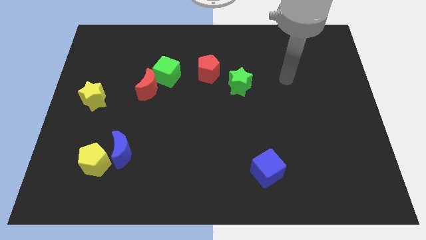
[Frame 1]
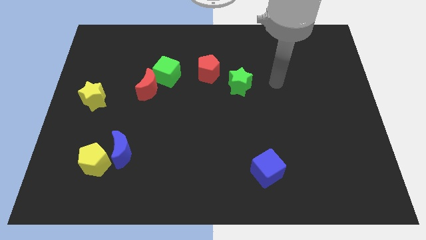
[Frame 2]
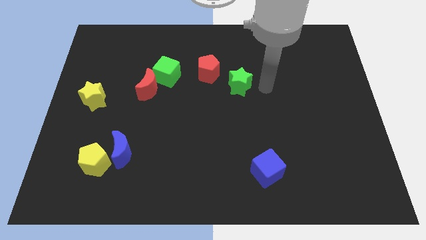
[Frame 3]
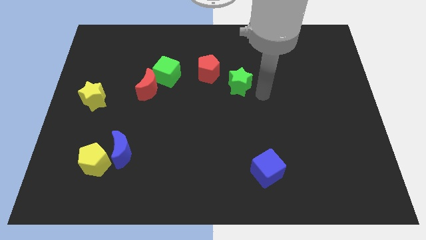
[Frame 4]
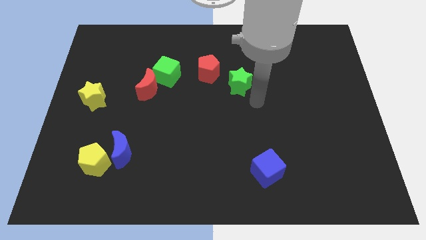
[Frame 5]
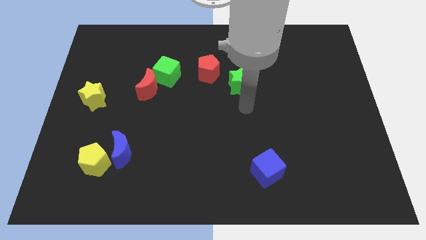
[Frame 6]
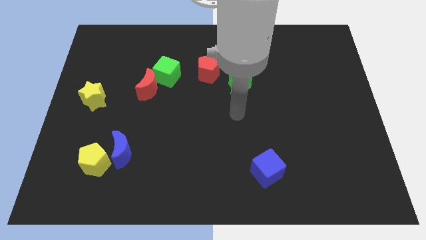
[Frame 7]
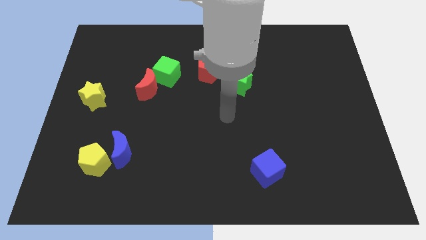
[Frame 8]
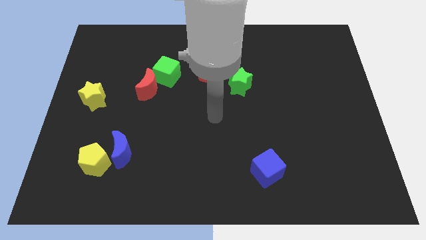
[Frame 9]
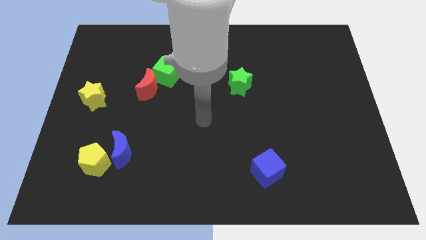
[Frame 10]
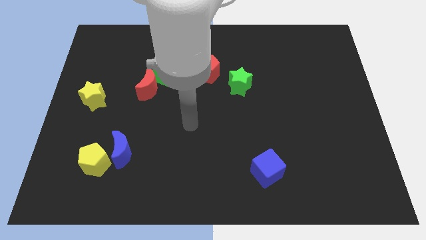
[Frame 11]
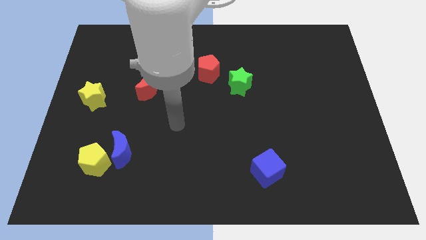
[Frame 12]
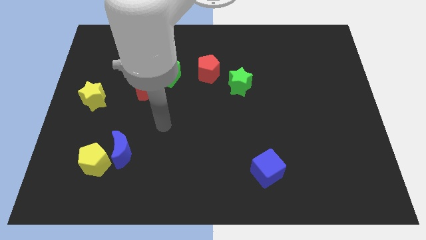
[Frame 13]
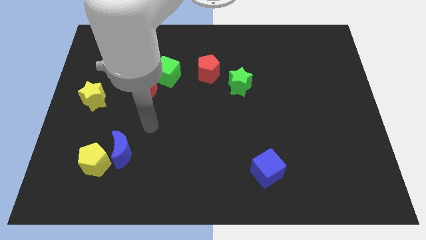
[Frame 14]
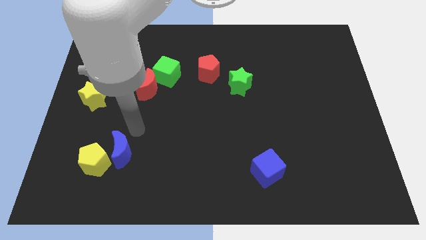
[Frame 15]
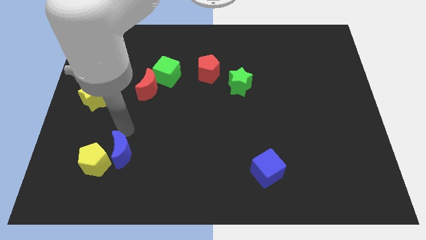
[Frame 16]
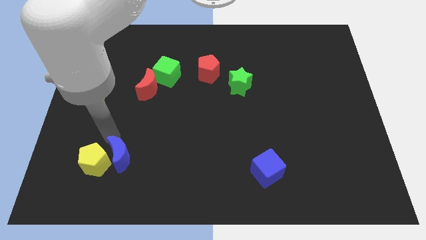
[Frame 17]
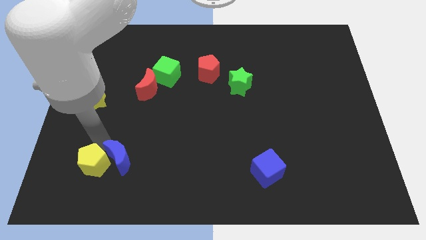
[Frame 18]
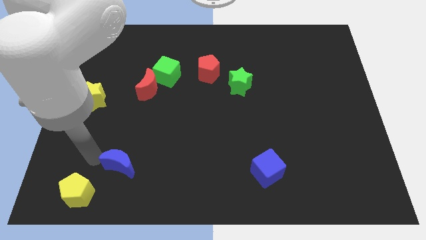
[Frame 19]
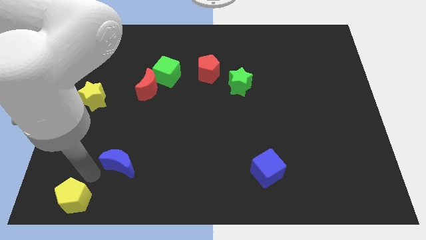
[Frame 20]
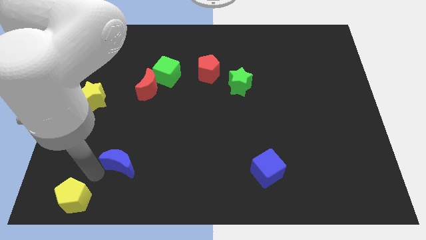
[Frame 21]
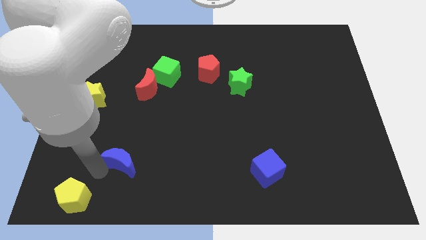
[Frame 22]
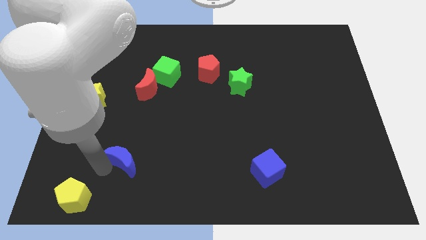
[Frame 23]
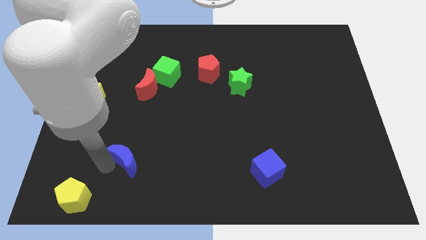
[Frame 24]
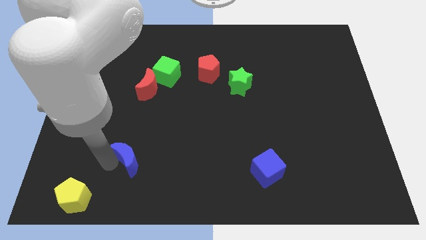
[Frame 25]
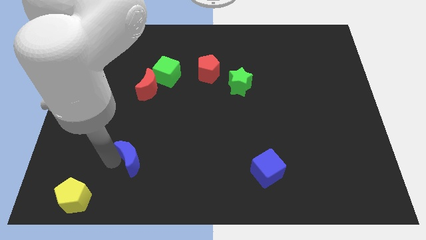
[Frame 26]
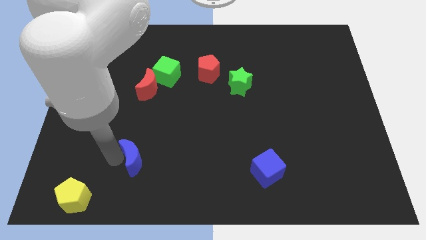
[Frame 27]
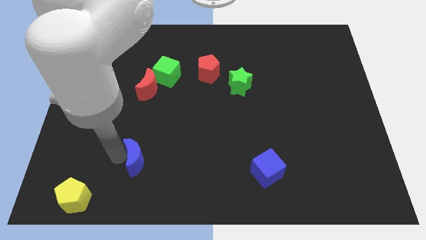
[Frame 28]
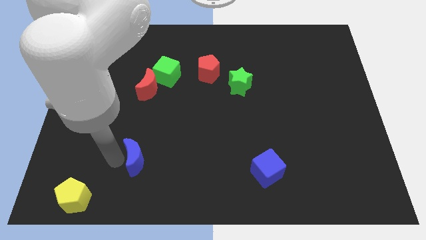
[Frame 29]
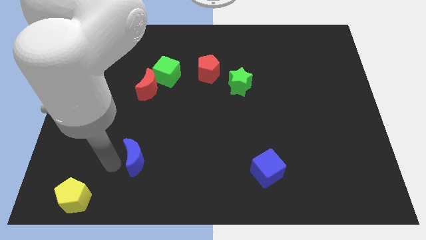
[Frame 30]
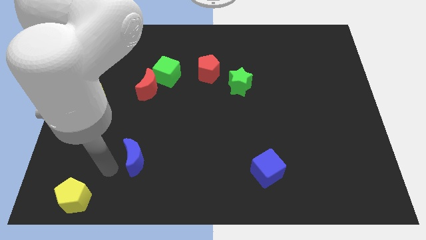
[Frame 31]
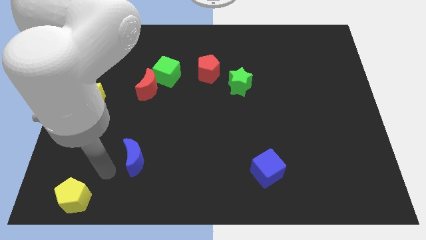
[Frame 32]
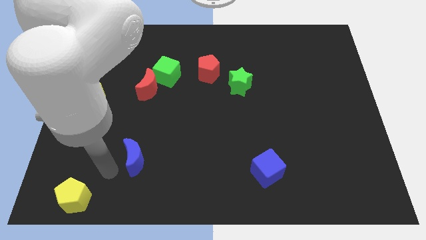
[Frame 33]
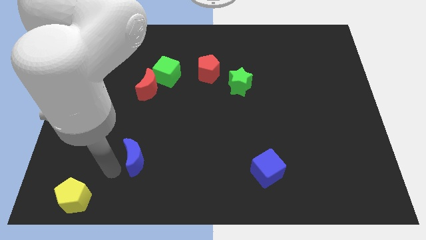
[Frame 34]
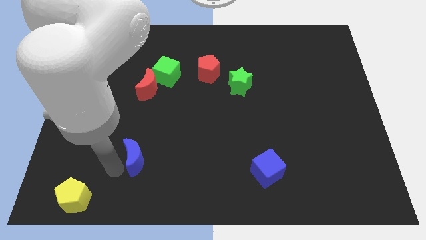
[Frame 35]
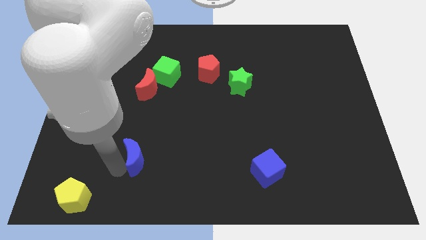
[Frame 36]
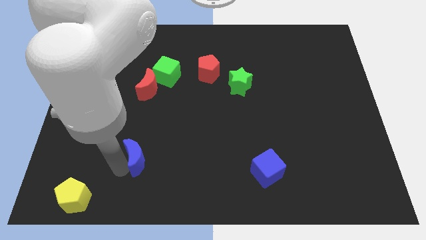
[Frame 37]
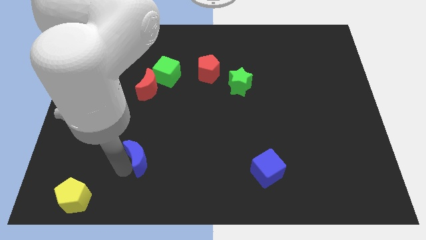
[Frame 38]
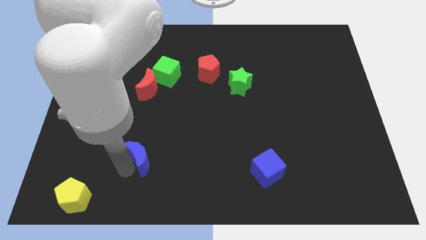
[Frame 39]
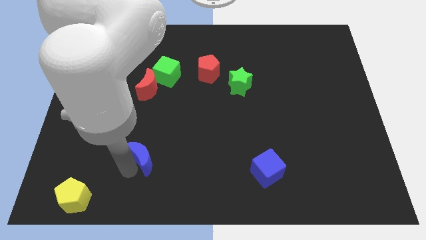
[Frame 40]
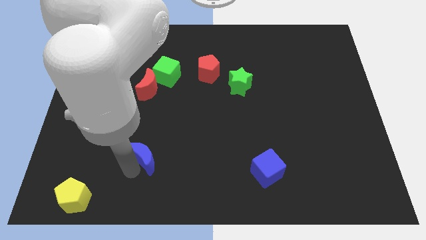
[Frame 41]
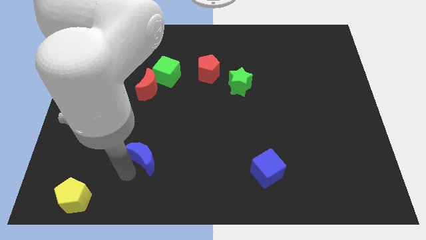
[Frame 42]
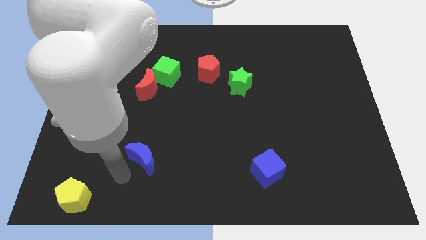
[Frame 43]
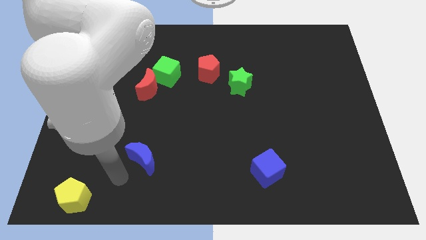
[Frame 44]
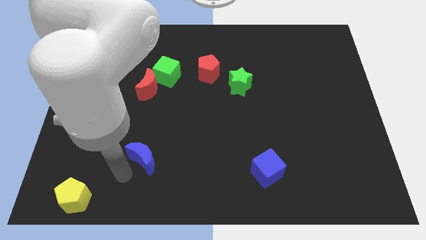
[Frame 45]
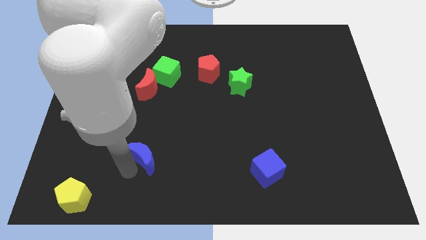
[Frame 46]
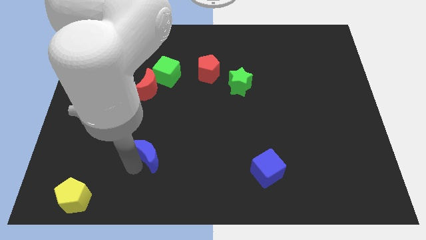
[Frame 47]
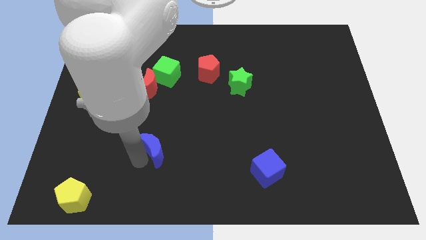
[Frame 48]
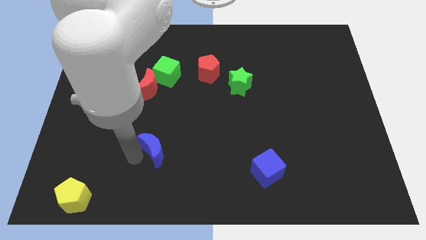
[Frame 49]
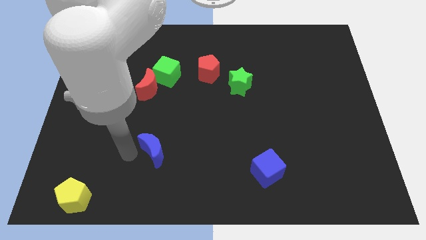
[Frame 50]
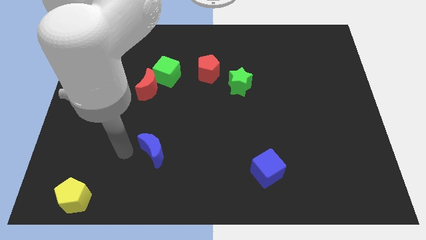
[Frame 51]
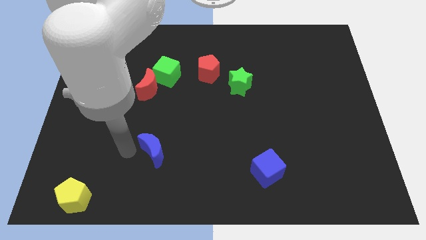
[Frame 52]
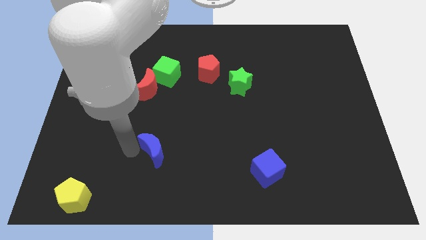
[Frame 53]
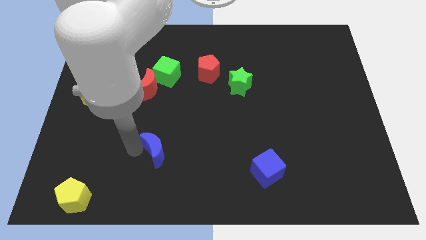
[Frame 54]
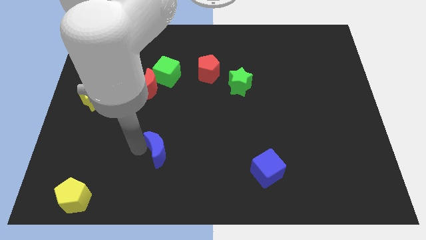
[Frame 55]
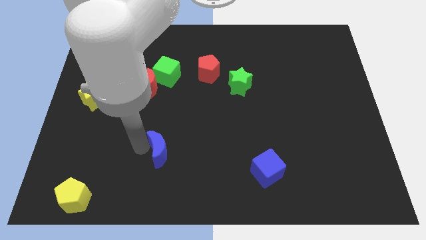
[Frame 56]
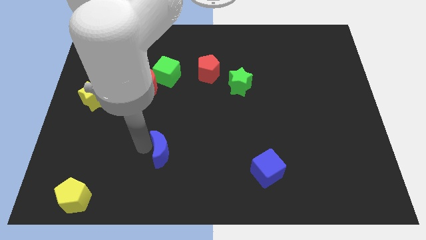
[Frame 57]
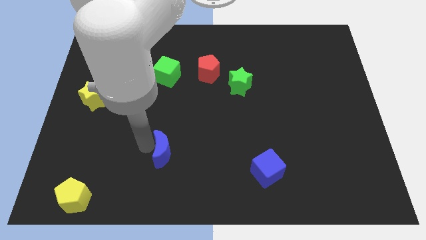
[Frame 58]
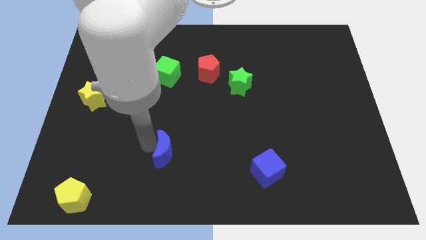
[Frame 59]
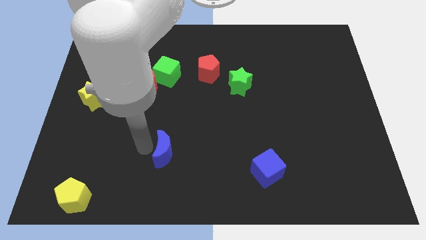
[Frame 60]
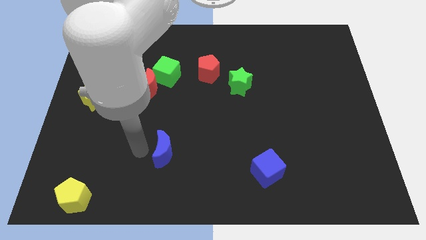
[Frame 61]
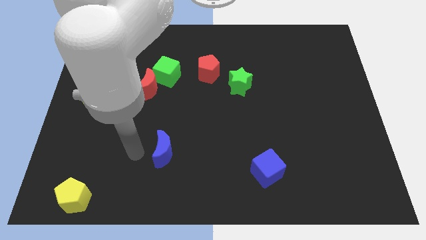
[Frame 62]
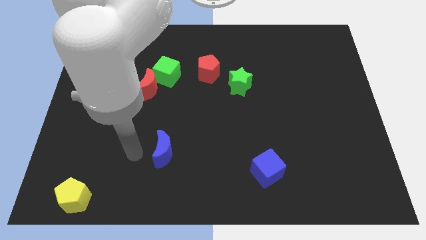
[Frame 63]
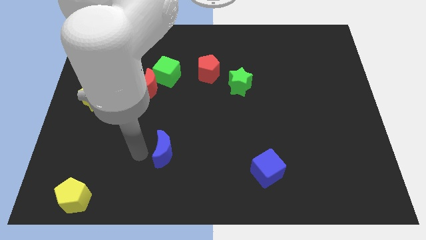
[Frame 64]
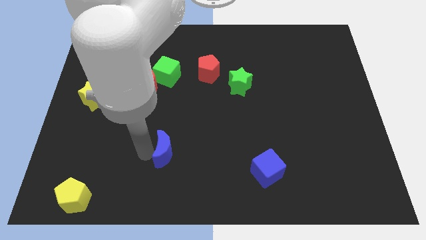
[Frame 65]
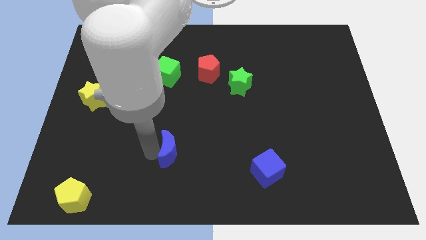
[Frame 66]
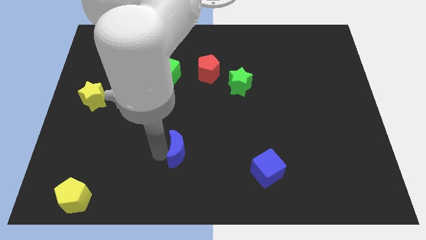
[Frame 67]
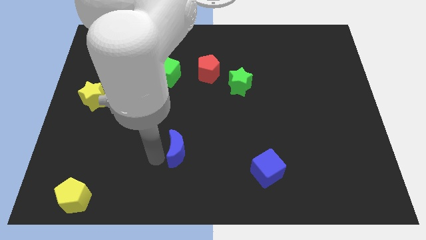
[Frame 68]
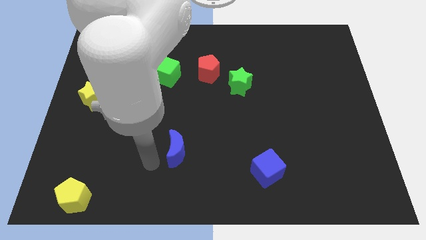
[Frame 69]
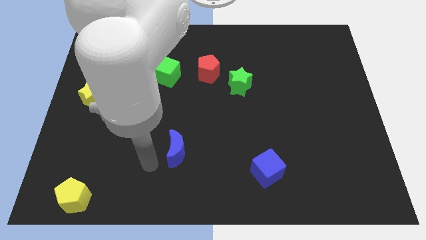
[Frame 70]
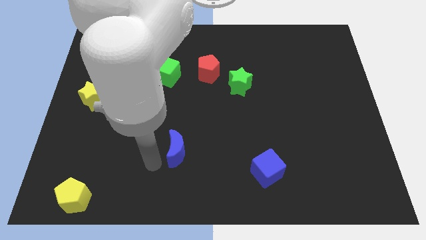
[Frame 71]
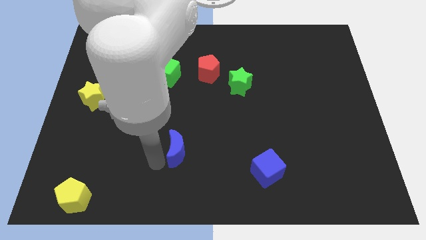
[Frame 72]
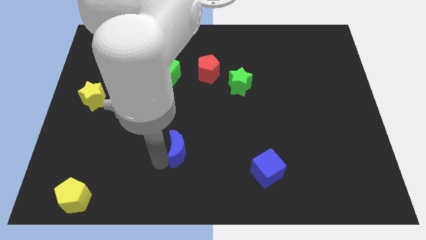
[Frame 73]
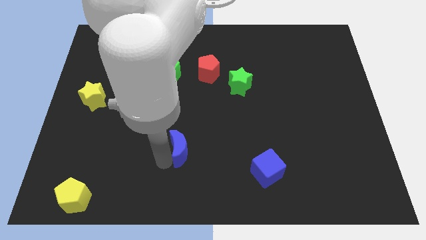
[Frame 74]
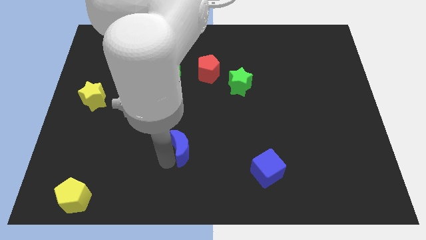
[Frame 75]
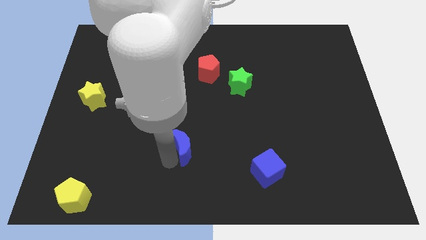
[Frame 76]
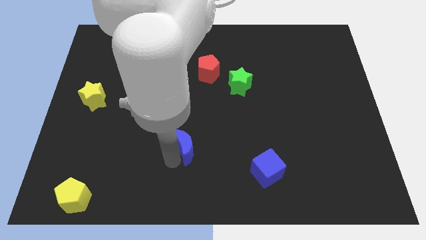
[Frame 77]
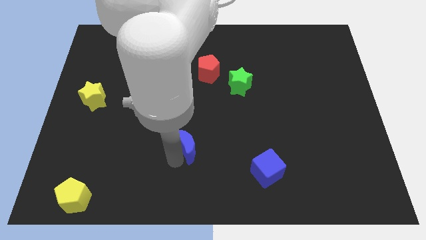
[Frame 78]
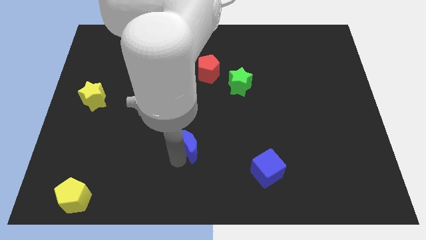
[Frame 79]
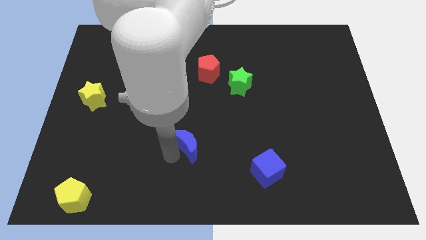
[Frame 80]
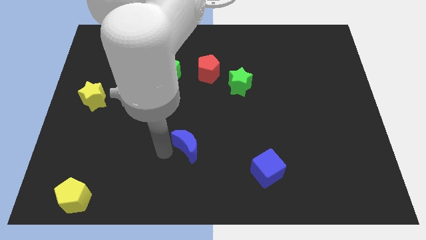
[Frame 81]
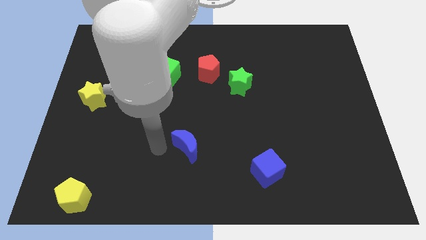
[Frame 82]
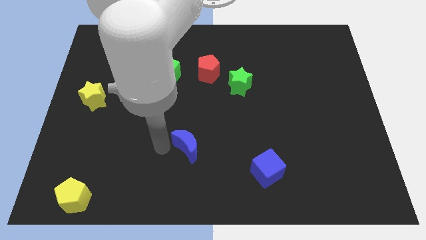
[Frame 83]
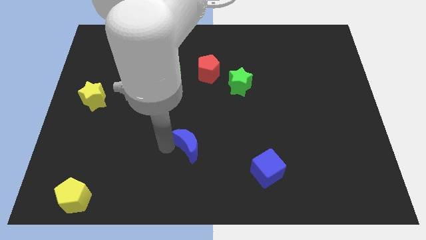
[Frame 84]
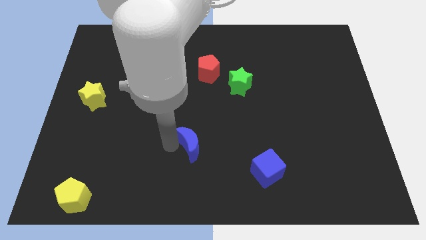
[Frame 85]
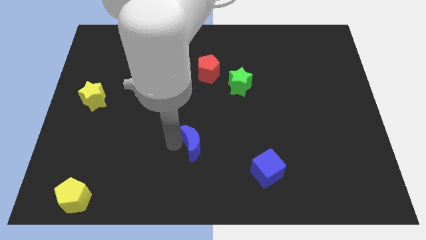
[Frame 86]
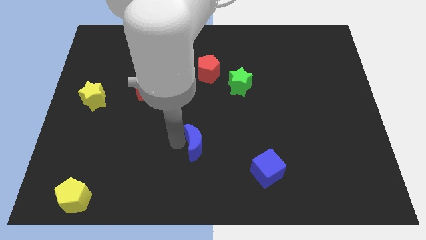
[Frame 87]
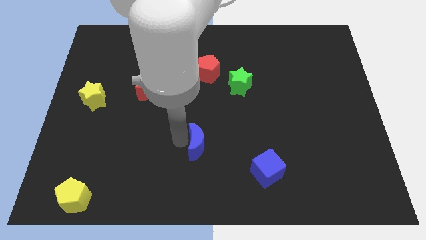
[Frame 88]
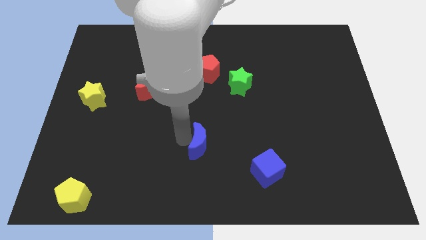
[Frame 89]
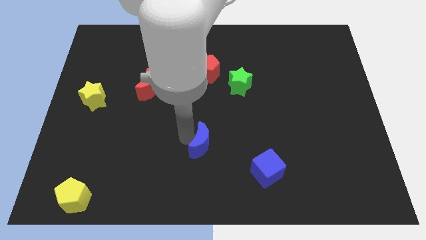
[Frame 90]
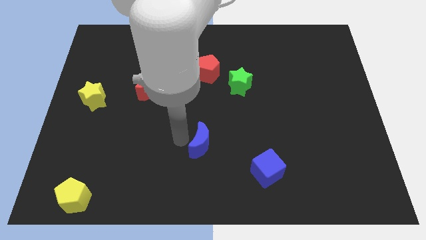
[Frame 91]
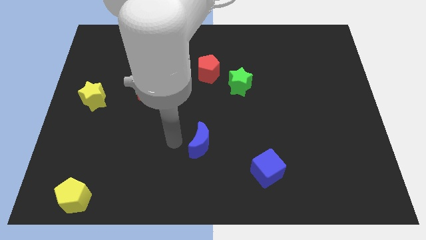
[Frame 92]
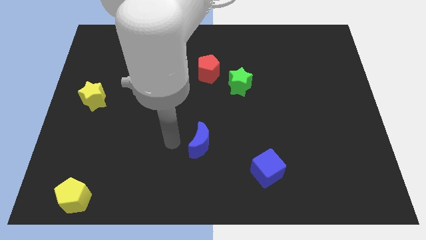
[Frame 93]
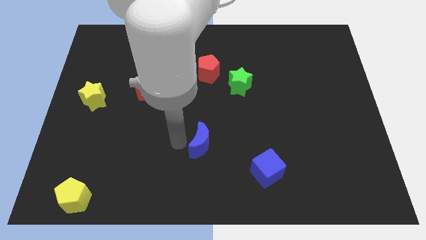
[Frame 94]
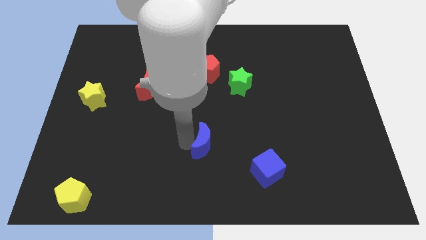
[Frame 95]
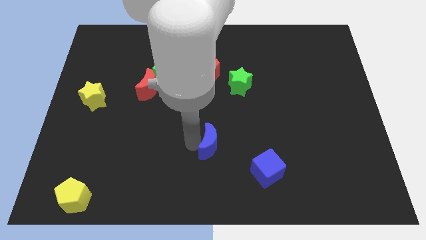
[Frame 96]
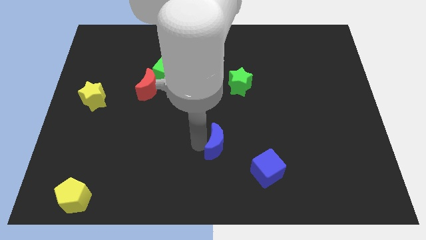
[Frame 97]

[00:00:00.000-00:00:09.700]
move the blue moon right
